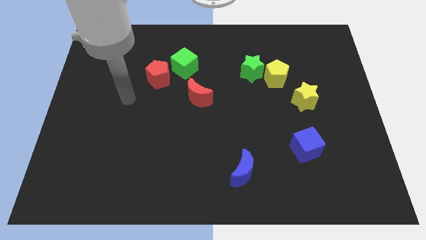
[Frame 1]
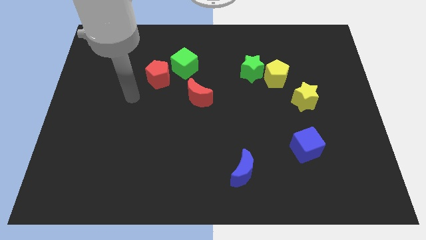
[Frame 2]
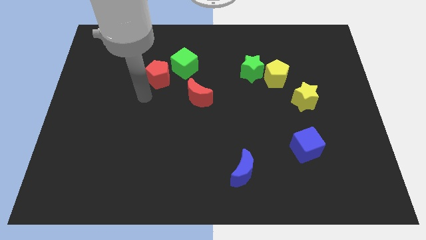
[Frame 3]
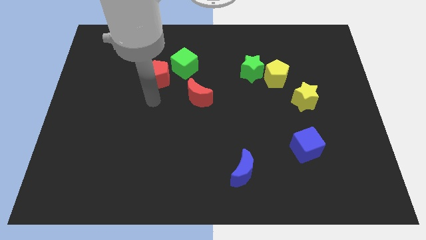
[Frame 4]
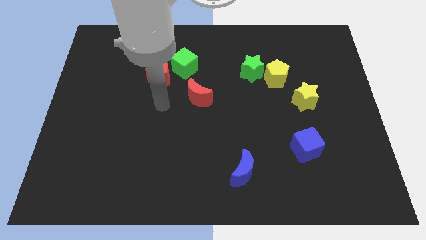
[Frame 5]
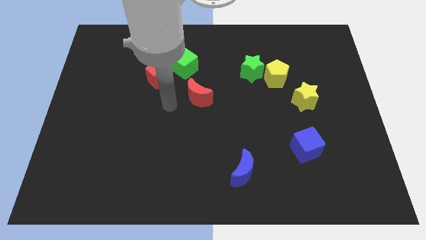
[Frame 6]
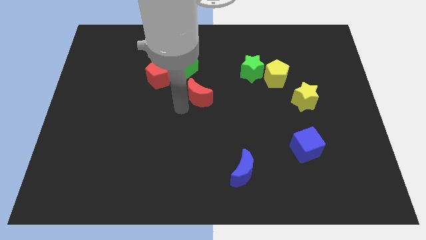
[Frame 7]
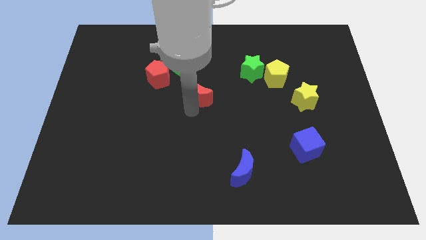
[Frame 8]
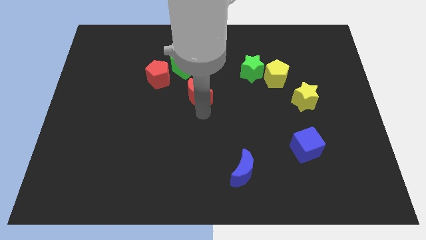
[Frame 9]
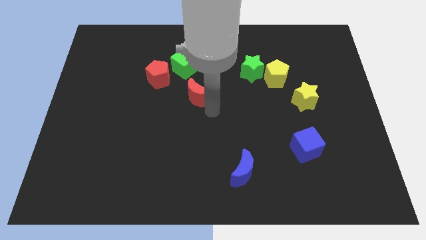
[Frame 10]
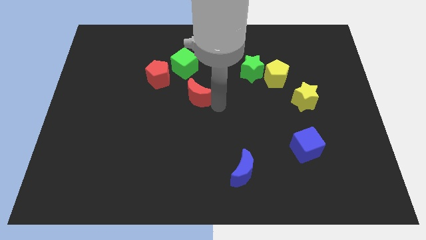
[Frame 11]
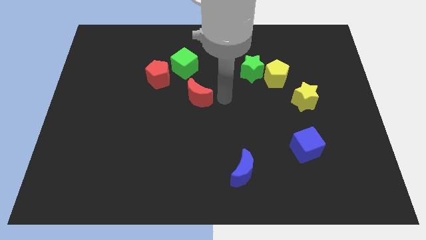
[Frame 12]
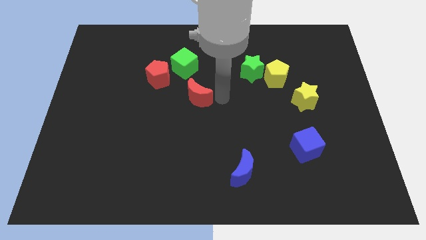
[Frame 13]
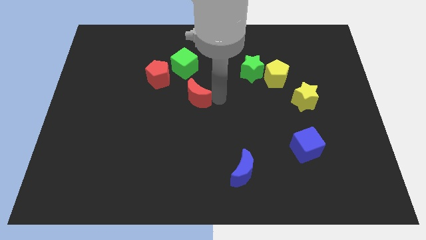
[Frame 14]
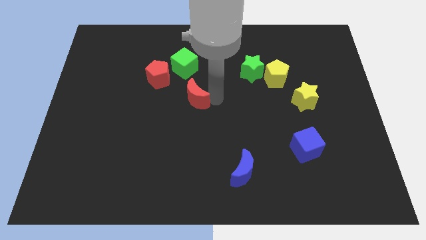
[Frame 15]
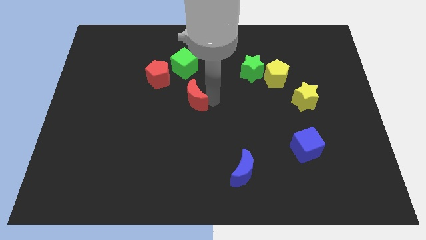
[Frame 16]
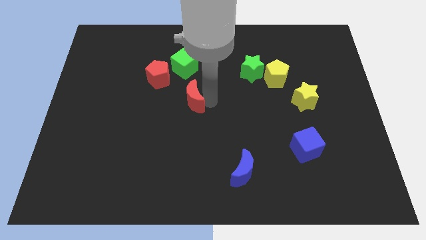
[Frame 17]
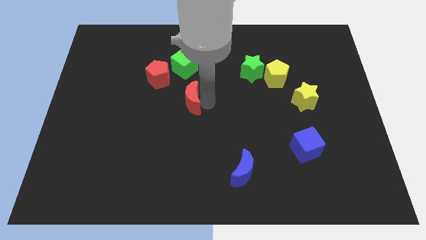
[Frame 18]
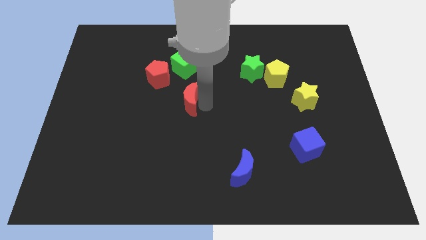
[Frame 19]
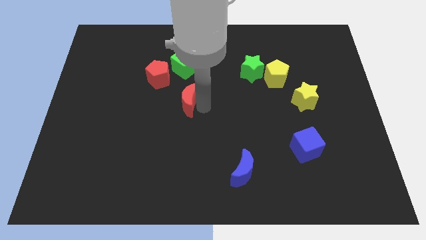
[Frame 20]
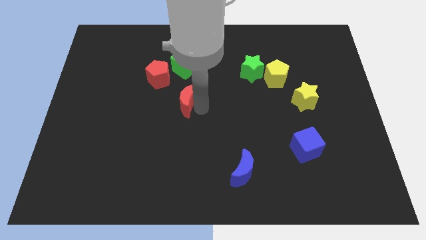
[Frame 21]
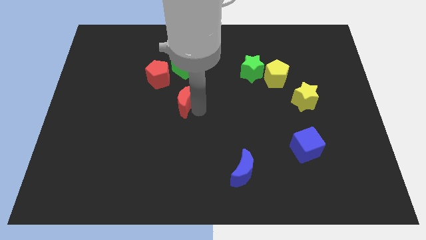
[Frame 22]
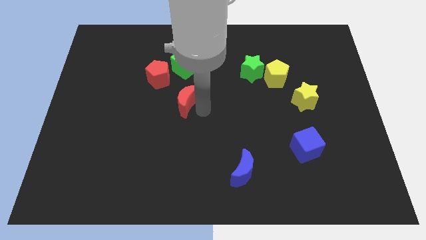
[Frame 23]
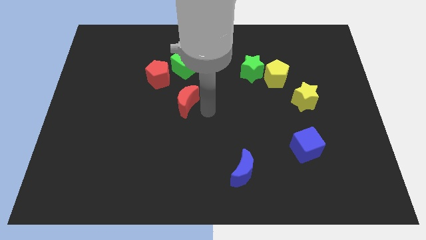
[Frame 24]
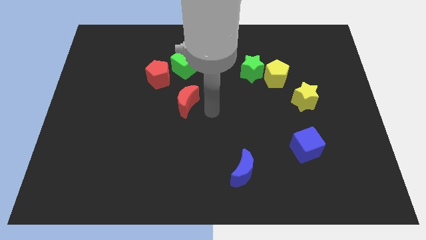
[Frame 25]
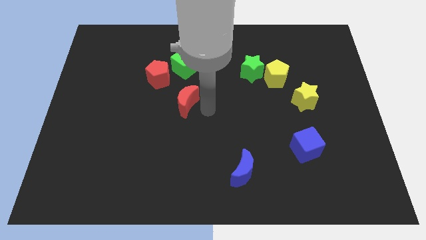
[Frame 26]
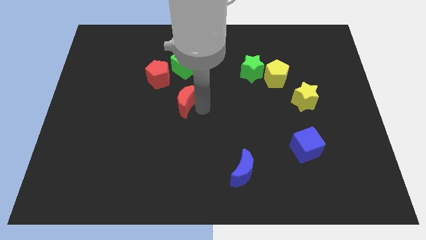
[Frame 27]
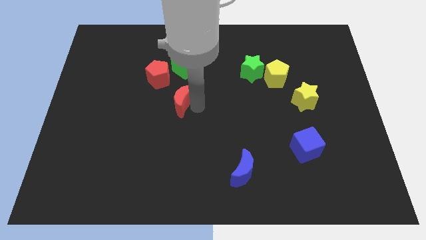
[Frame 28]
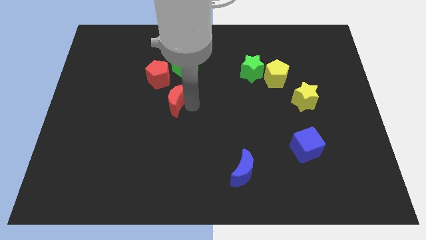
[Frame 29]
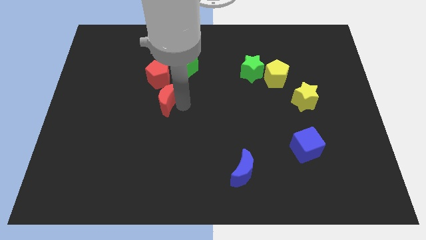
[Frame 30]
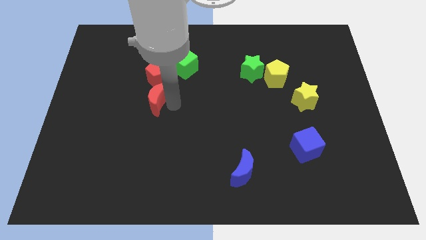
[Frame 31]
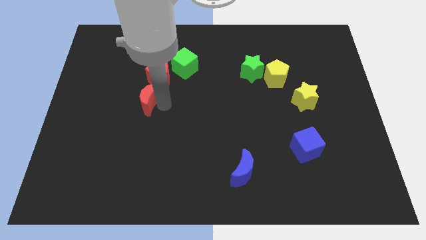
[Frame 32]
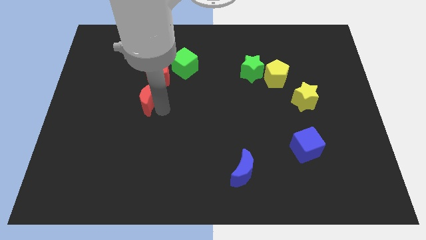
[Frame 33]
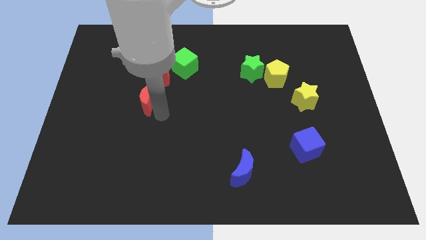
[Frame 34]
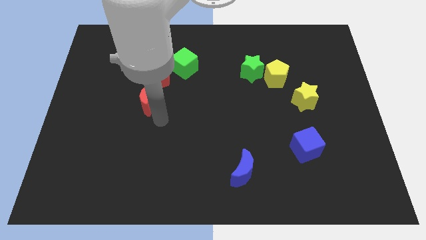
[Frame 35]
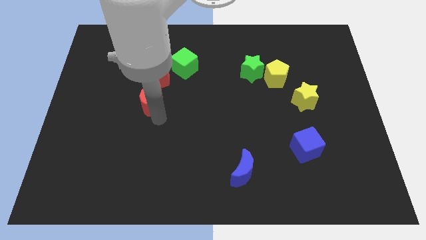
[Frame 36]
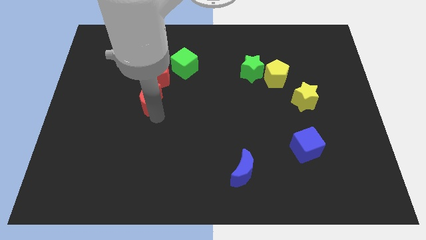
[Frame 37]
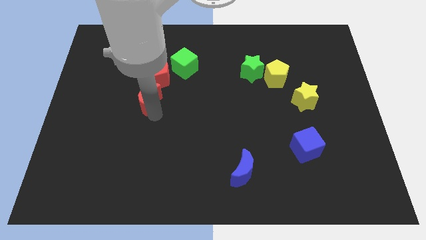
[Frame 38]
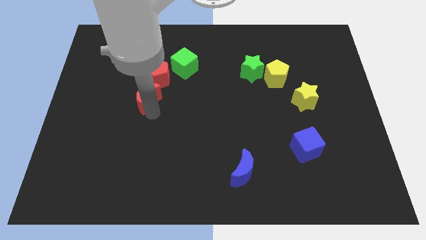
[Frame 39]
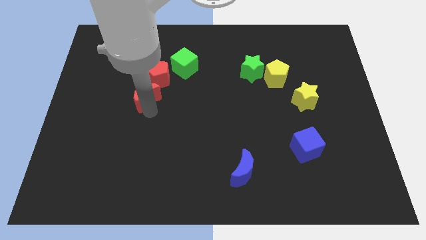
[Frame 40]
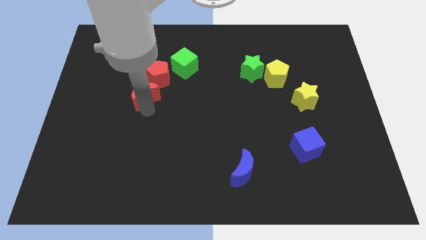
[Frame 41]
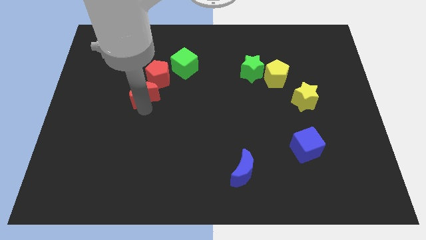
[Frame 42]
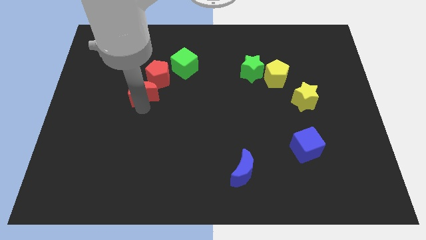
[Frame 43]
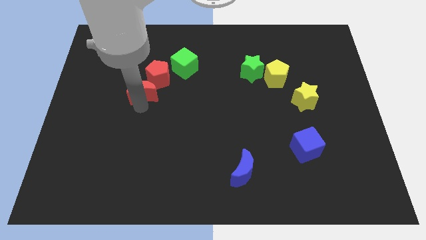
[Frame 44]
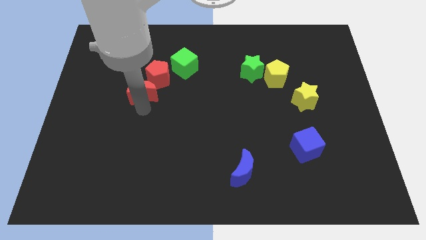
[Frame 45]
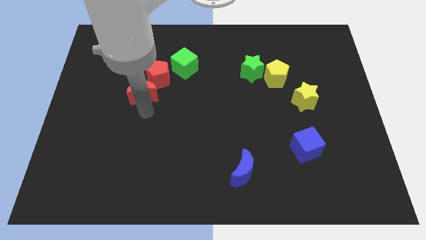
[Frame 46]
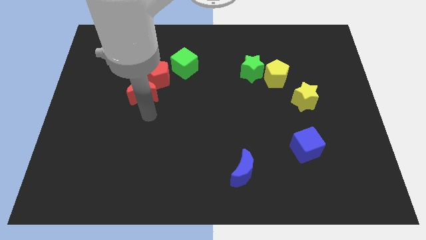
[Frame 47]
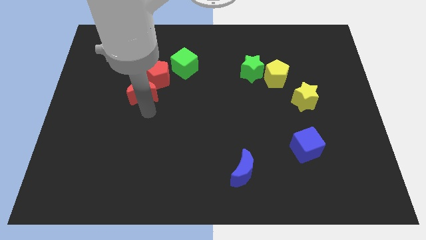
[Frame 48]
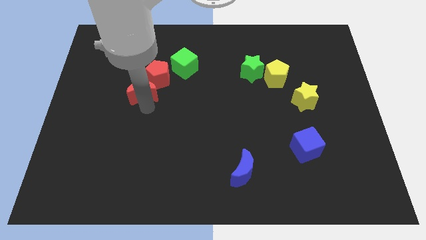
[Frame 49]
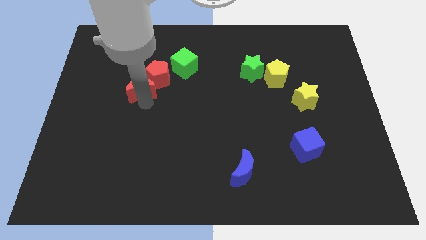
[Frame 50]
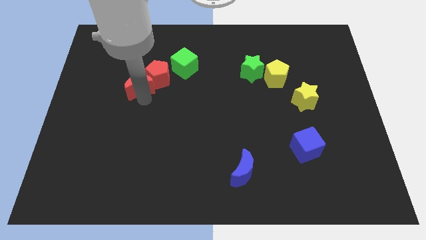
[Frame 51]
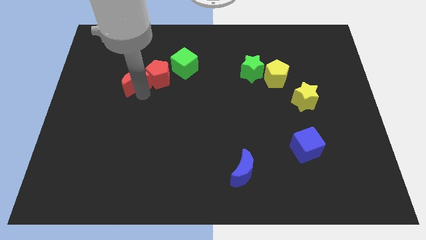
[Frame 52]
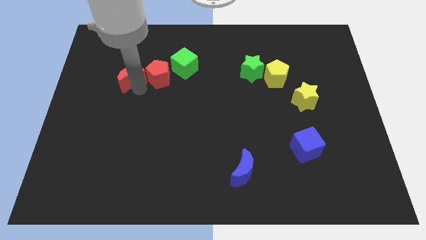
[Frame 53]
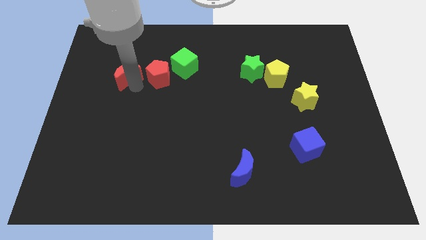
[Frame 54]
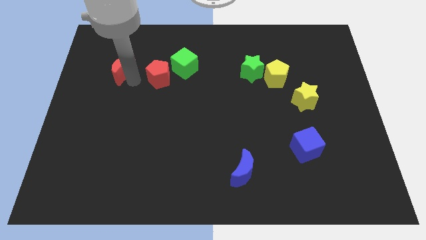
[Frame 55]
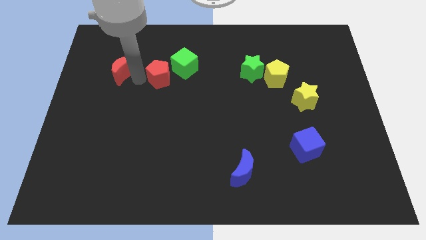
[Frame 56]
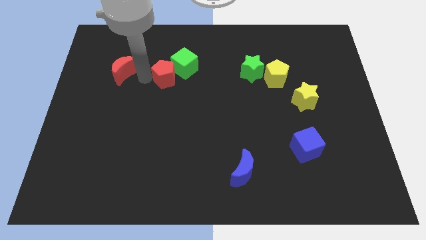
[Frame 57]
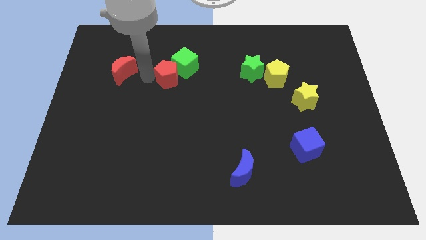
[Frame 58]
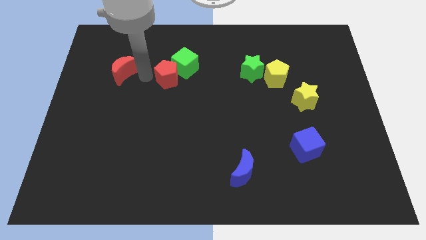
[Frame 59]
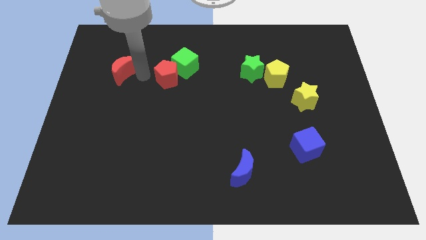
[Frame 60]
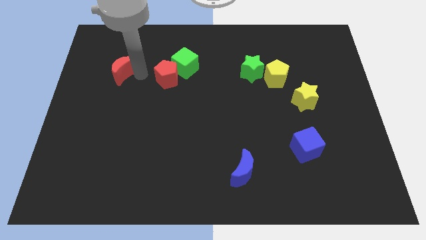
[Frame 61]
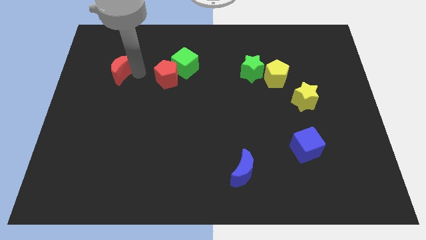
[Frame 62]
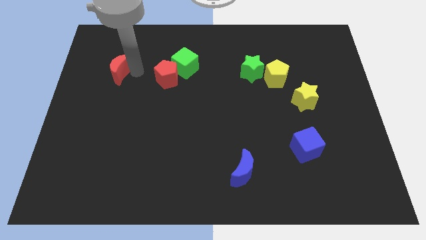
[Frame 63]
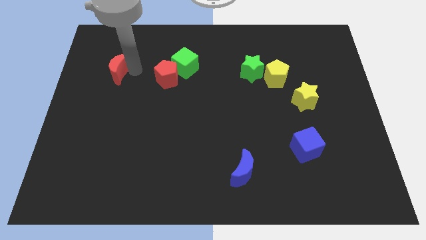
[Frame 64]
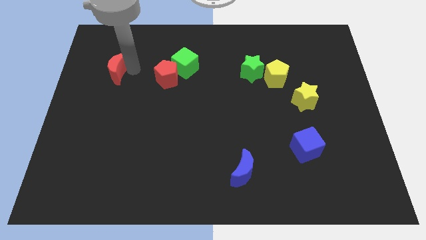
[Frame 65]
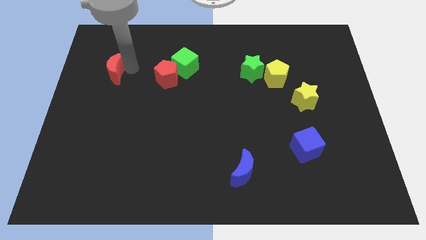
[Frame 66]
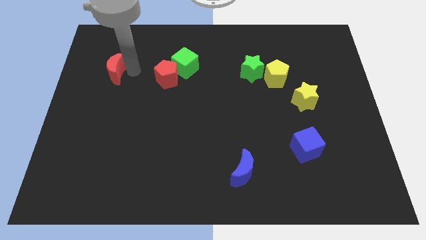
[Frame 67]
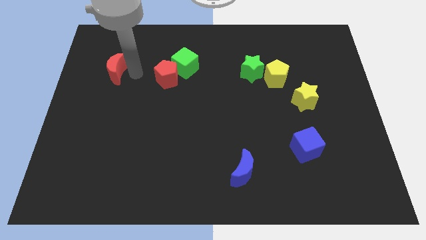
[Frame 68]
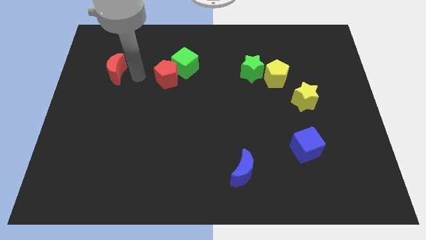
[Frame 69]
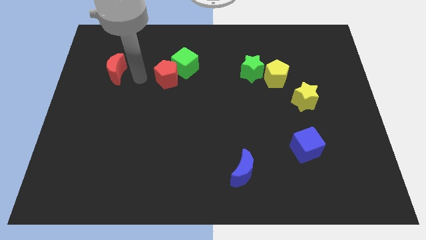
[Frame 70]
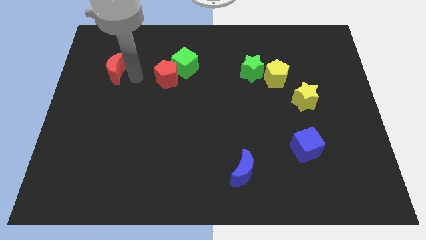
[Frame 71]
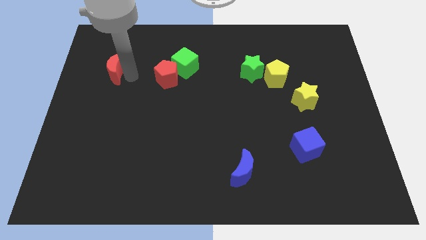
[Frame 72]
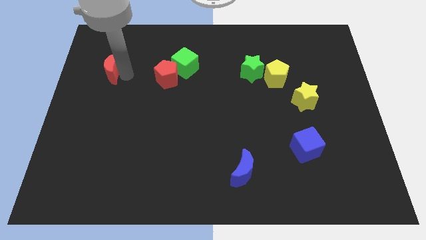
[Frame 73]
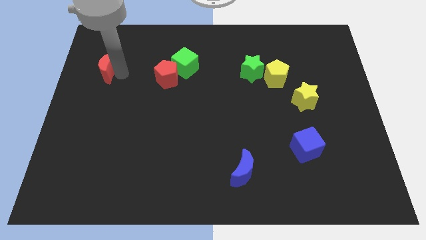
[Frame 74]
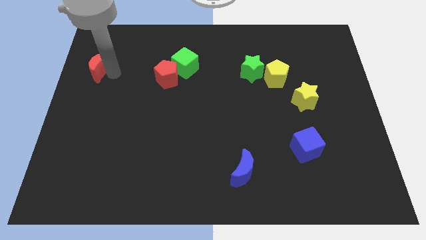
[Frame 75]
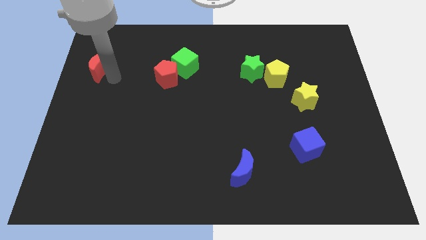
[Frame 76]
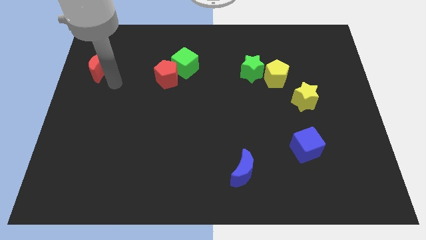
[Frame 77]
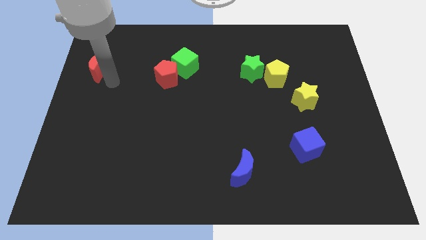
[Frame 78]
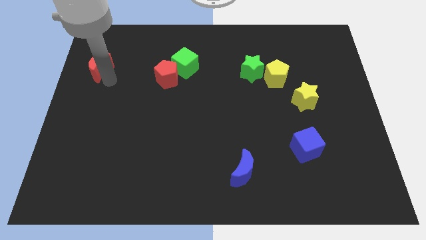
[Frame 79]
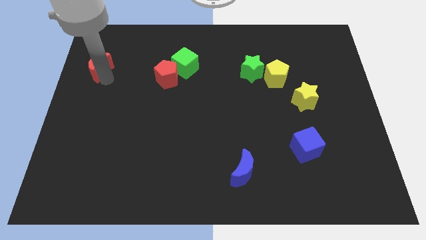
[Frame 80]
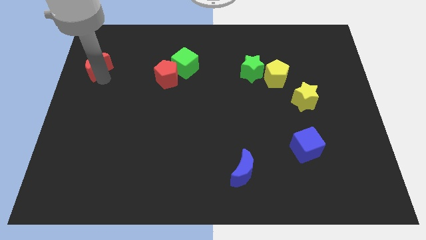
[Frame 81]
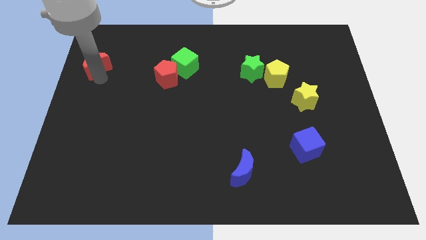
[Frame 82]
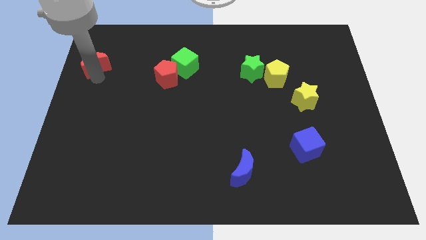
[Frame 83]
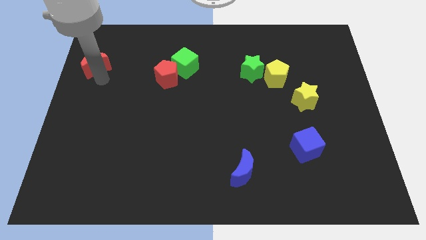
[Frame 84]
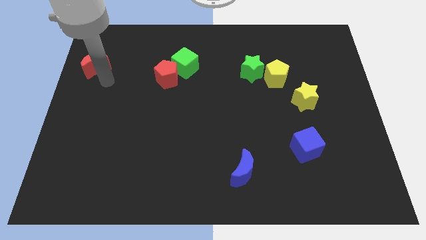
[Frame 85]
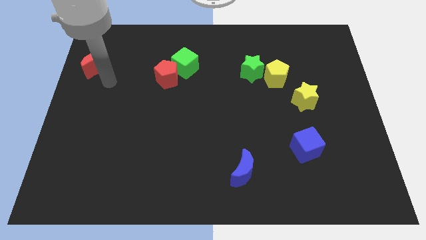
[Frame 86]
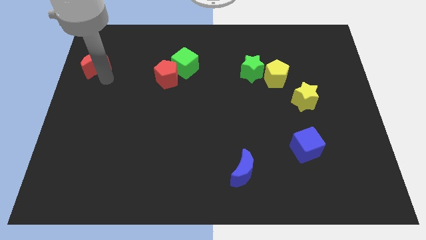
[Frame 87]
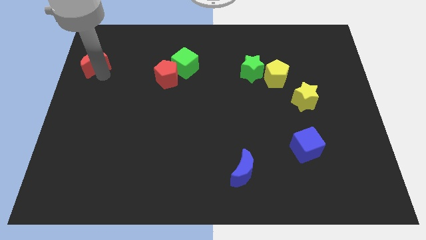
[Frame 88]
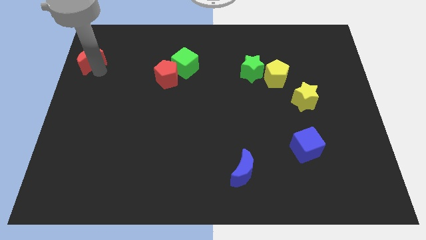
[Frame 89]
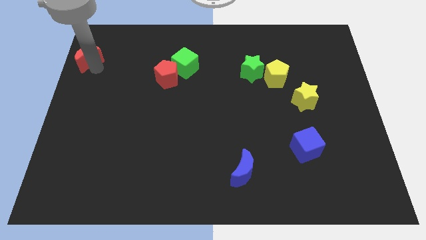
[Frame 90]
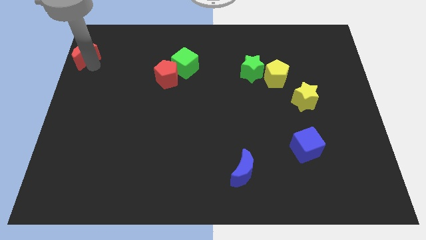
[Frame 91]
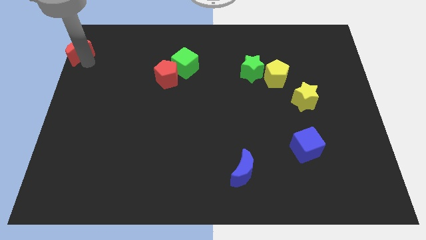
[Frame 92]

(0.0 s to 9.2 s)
push the red moon to the top left corner
